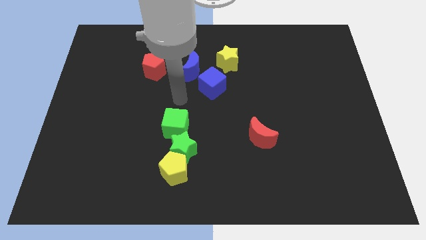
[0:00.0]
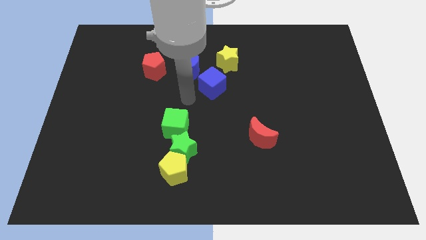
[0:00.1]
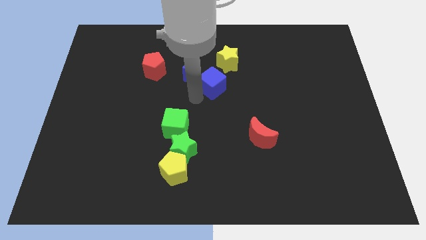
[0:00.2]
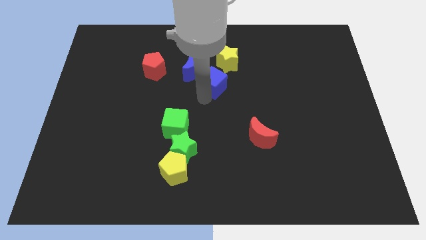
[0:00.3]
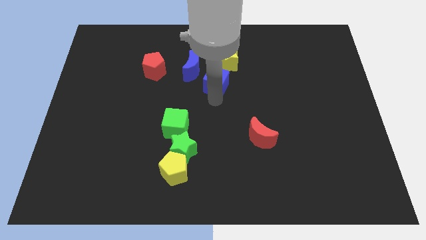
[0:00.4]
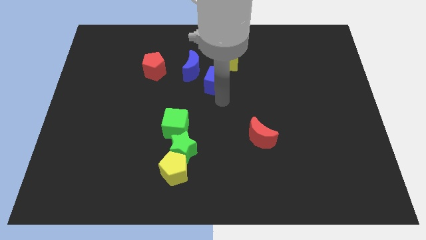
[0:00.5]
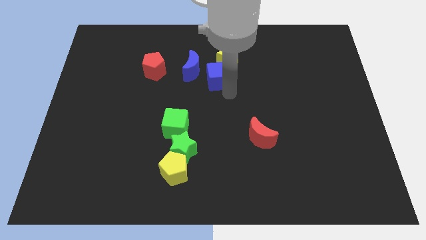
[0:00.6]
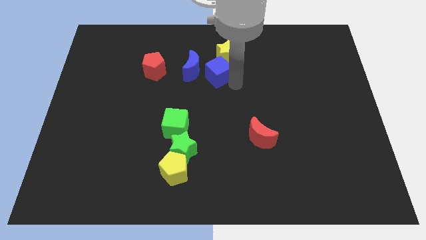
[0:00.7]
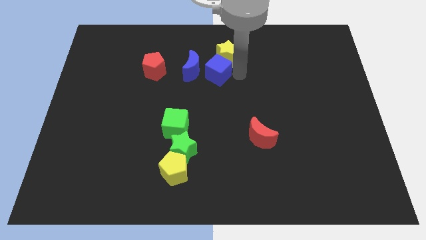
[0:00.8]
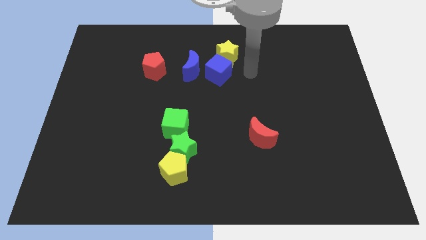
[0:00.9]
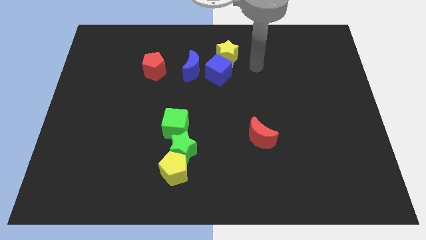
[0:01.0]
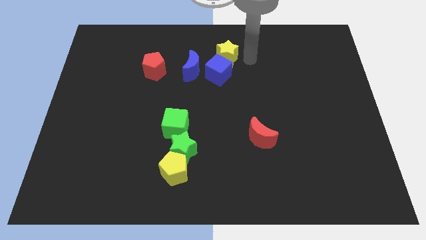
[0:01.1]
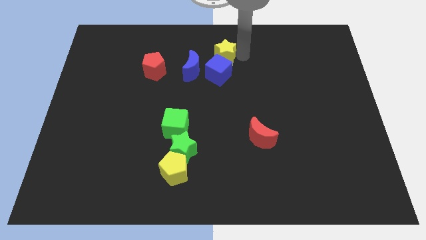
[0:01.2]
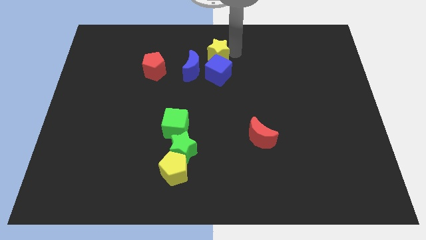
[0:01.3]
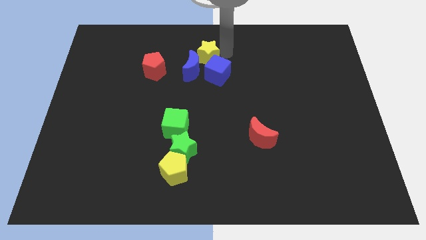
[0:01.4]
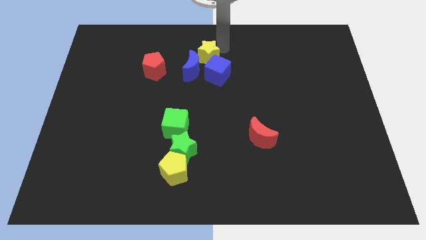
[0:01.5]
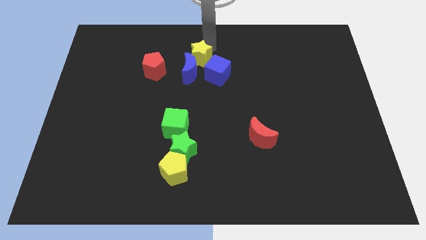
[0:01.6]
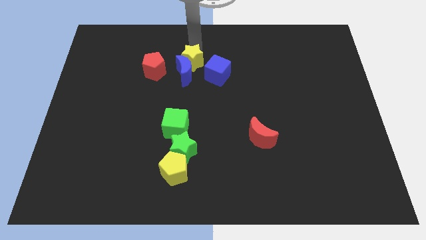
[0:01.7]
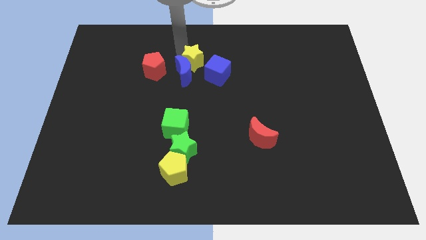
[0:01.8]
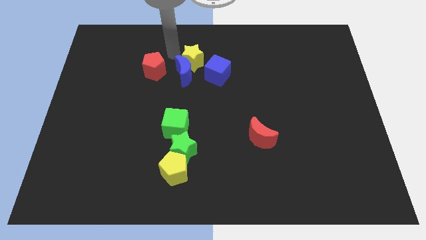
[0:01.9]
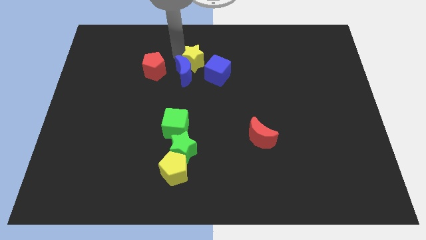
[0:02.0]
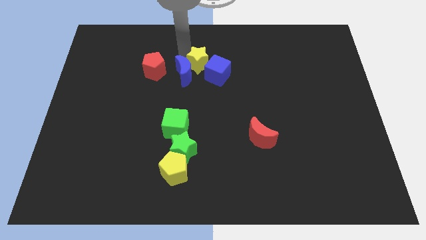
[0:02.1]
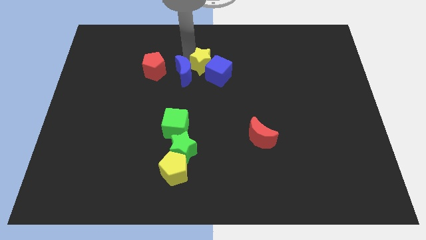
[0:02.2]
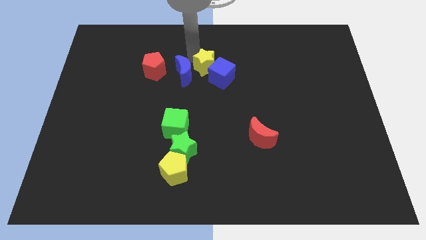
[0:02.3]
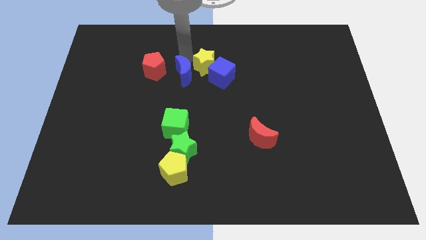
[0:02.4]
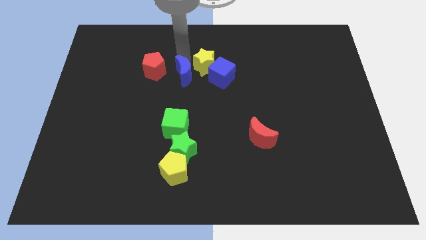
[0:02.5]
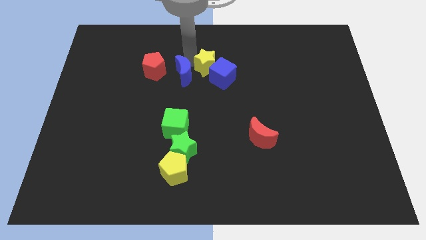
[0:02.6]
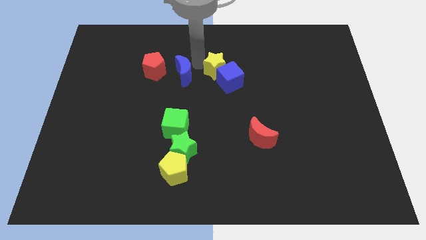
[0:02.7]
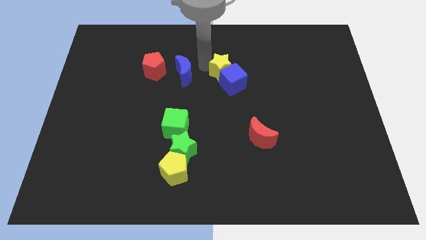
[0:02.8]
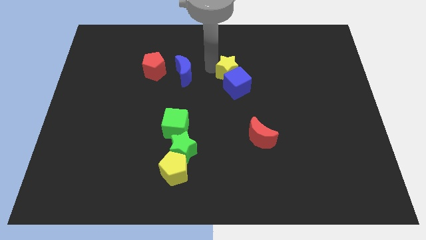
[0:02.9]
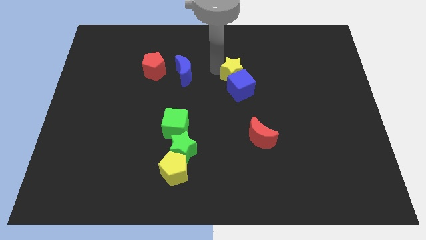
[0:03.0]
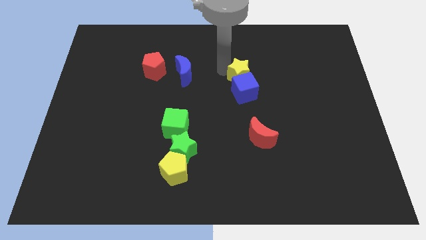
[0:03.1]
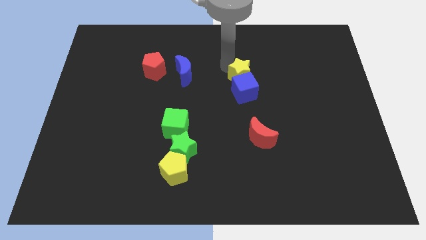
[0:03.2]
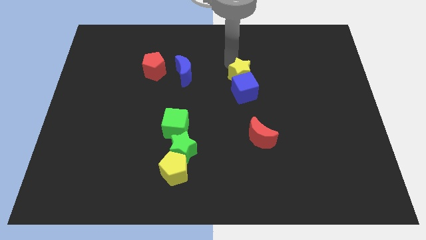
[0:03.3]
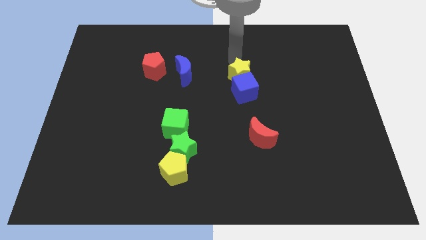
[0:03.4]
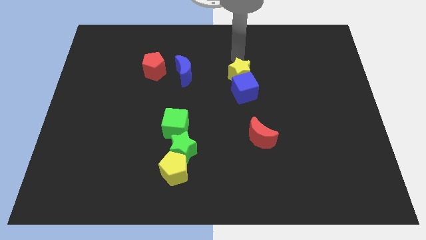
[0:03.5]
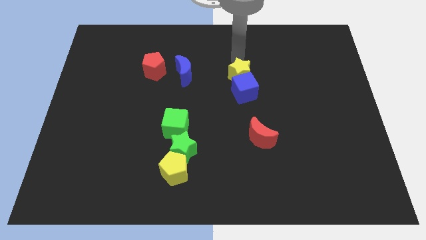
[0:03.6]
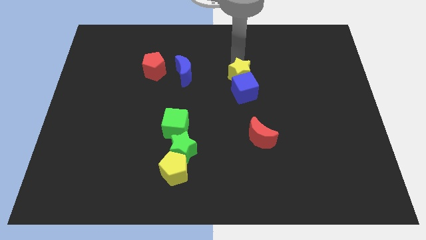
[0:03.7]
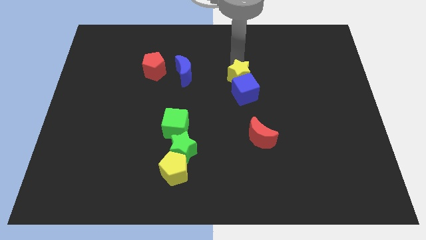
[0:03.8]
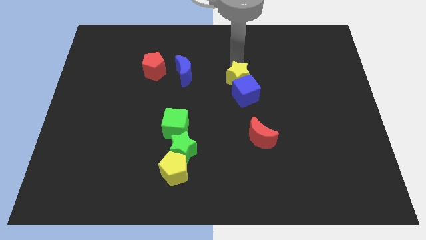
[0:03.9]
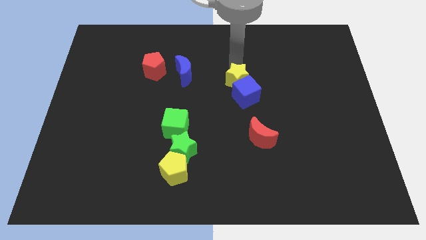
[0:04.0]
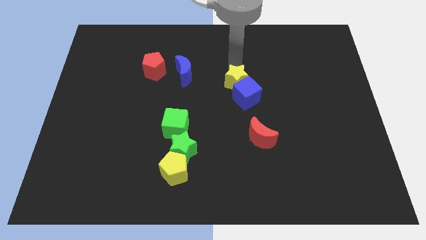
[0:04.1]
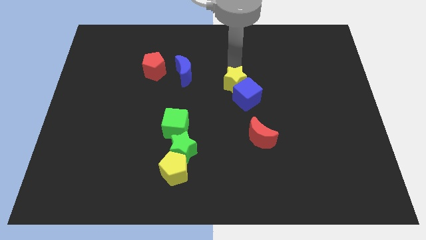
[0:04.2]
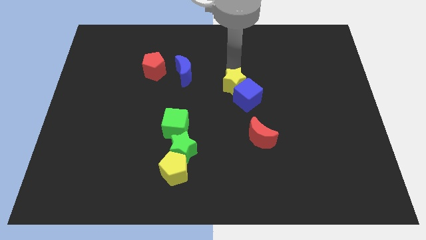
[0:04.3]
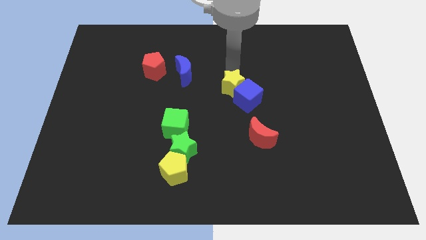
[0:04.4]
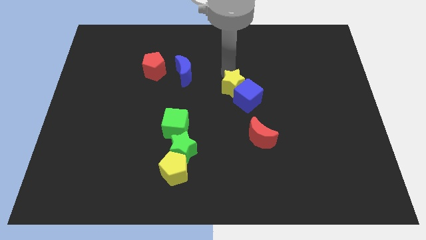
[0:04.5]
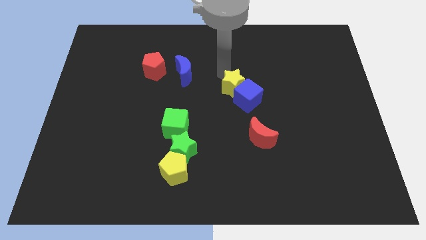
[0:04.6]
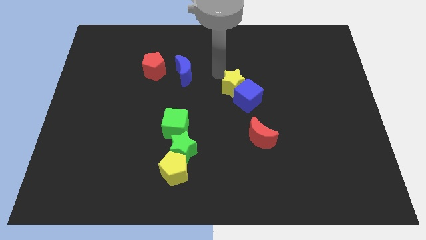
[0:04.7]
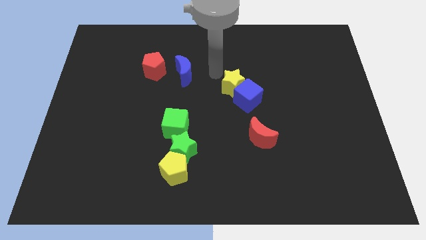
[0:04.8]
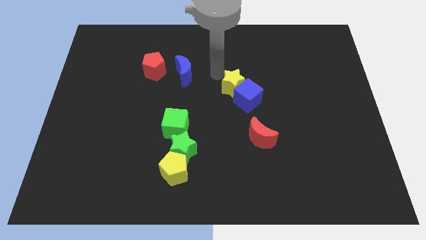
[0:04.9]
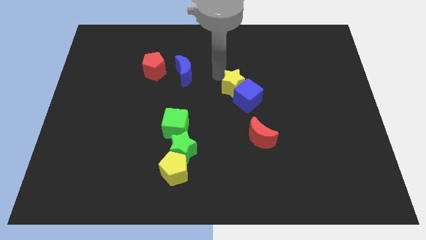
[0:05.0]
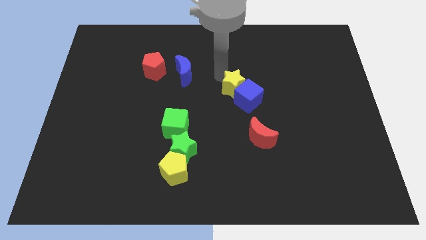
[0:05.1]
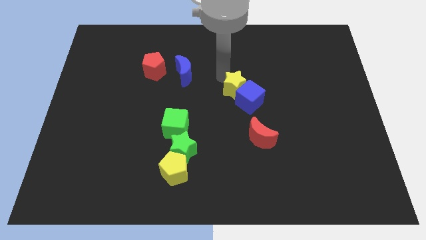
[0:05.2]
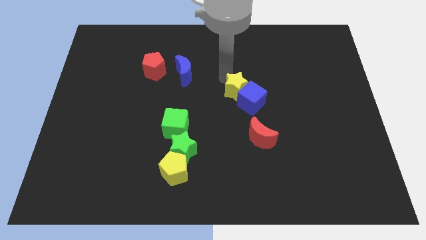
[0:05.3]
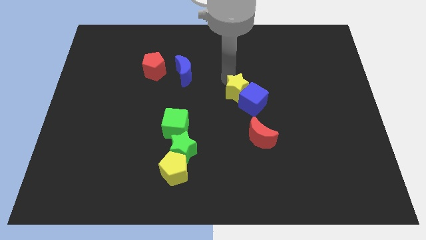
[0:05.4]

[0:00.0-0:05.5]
slide the yellow star above the red moon
